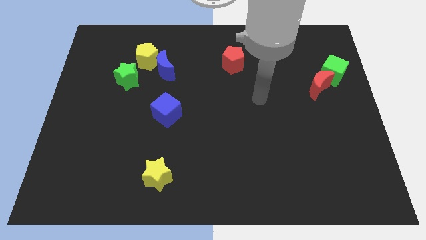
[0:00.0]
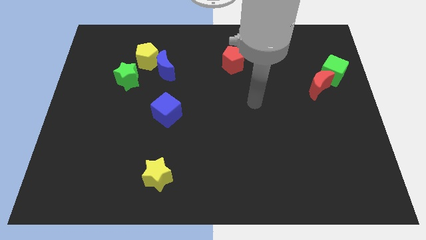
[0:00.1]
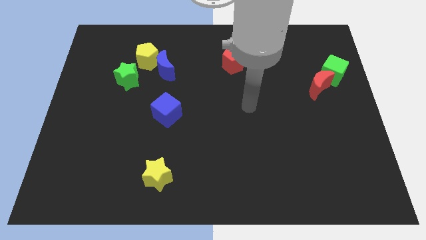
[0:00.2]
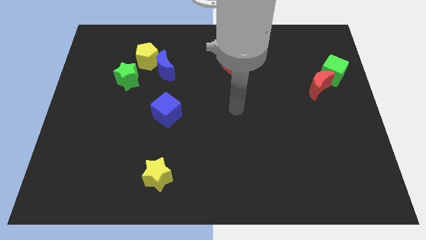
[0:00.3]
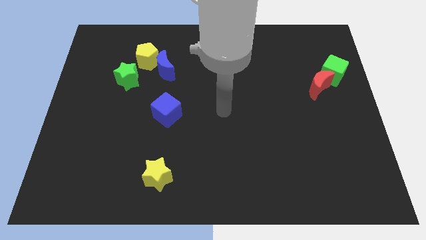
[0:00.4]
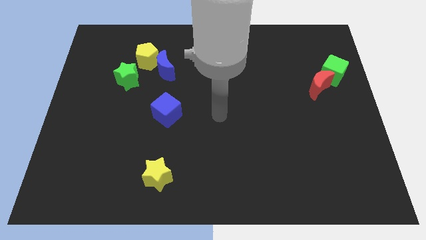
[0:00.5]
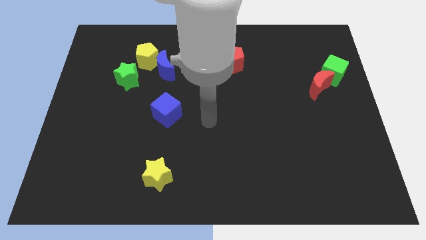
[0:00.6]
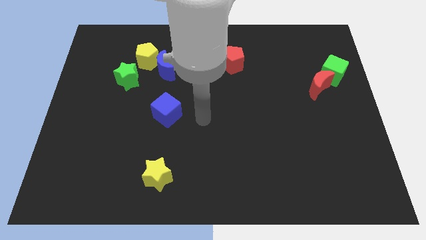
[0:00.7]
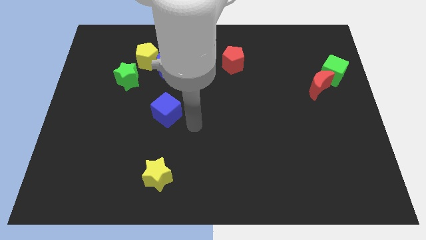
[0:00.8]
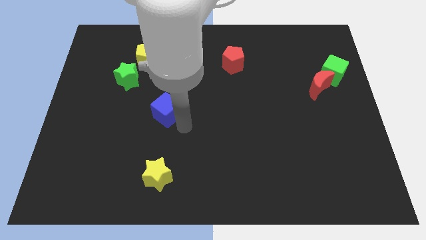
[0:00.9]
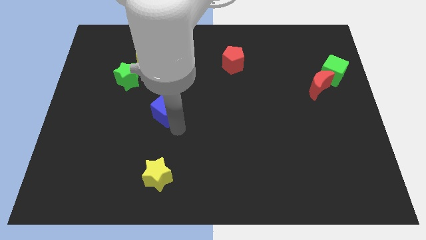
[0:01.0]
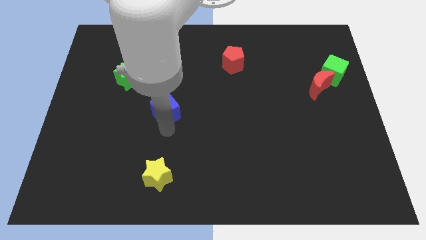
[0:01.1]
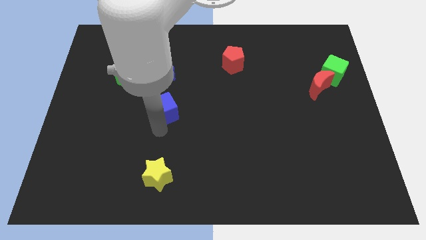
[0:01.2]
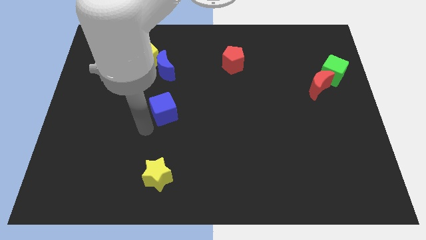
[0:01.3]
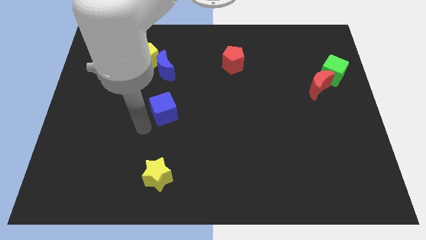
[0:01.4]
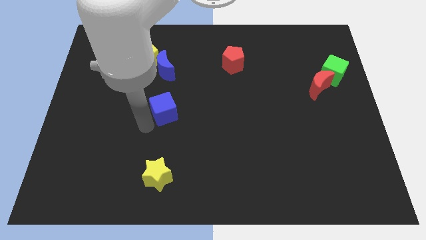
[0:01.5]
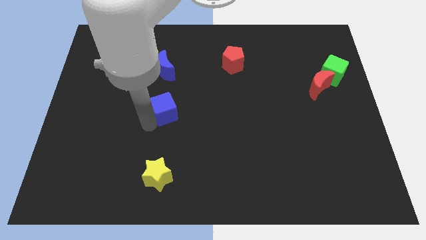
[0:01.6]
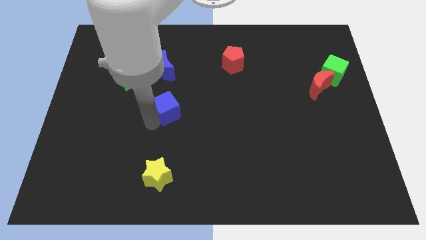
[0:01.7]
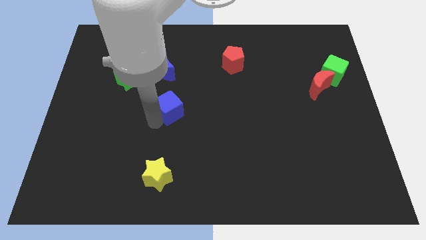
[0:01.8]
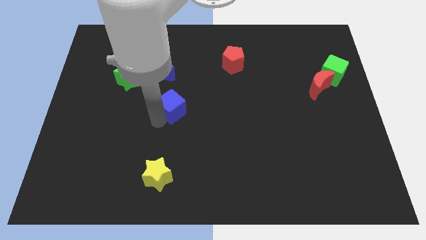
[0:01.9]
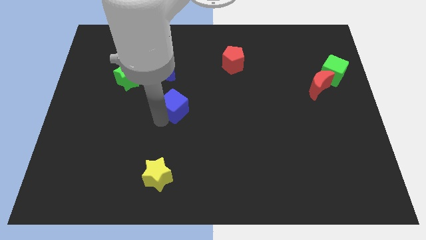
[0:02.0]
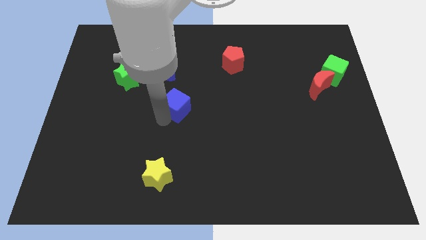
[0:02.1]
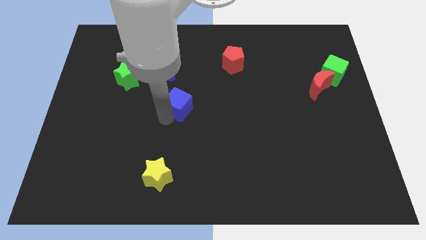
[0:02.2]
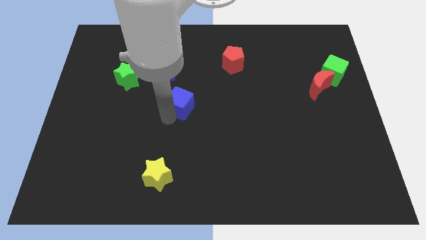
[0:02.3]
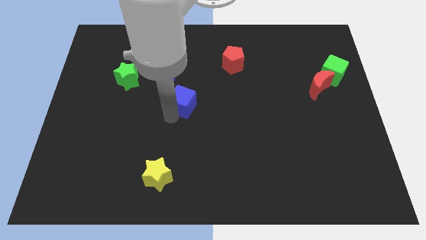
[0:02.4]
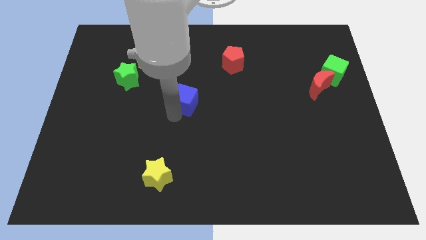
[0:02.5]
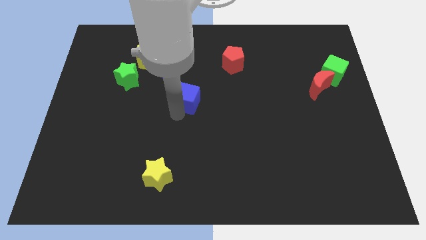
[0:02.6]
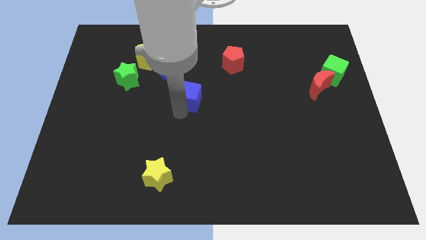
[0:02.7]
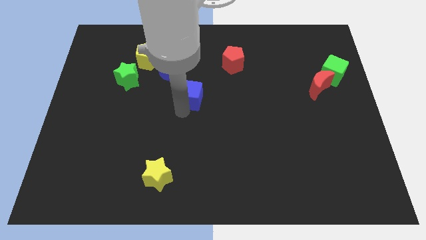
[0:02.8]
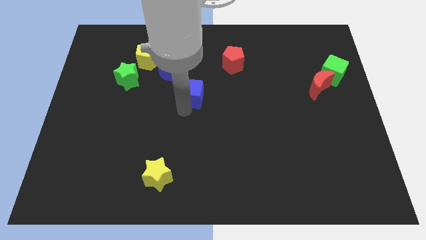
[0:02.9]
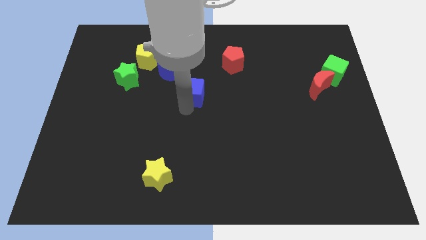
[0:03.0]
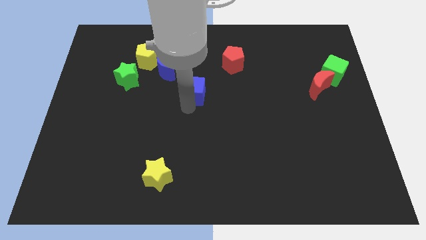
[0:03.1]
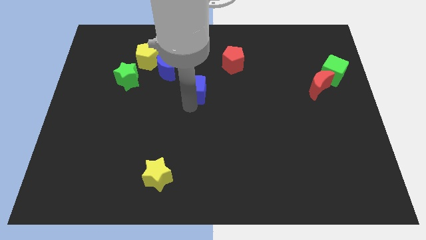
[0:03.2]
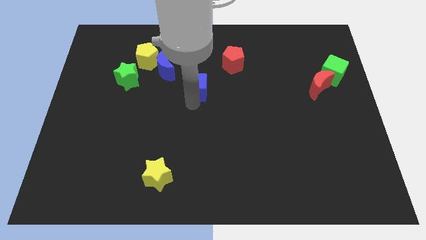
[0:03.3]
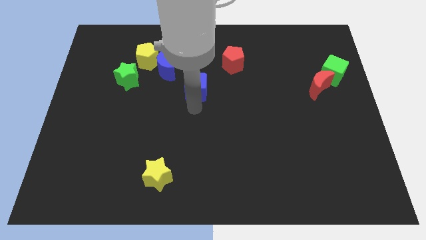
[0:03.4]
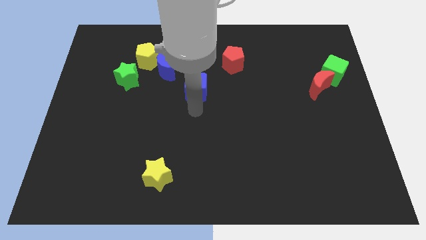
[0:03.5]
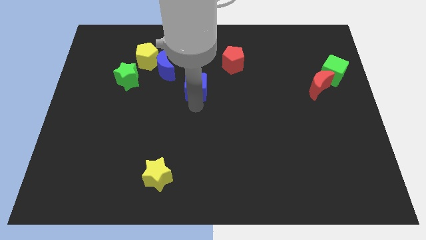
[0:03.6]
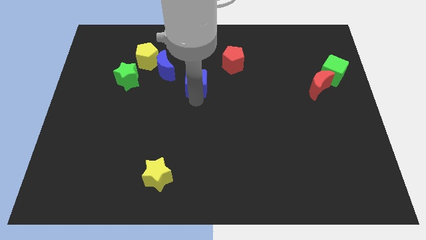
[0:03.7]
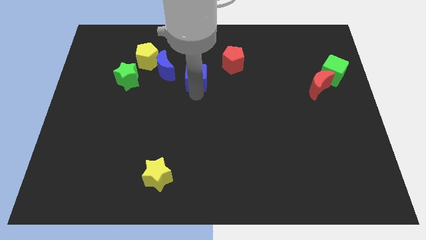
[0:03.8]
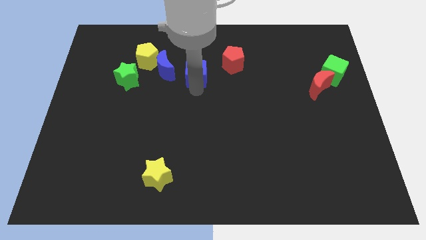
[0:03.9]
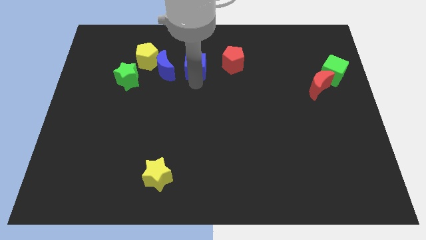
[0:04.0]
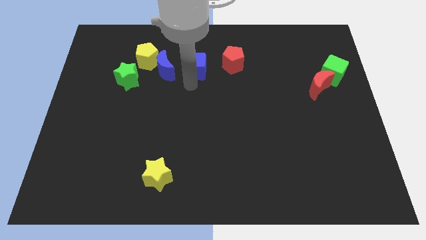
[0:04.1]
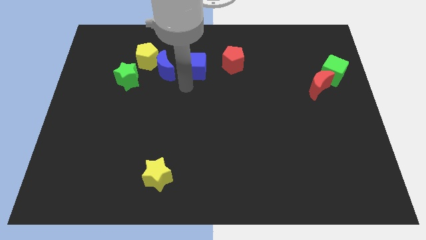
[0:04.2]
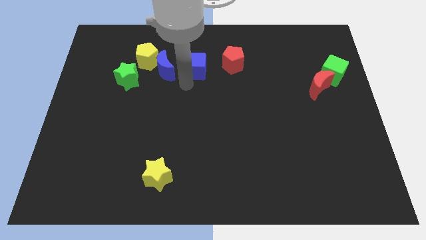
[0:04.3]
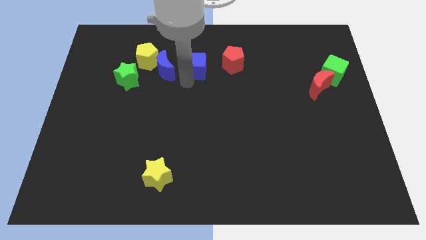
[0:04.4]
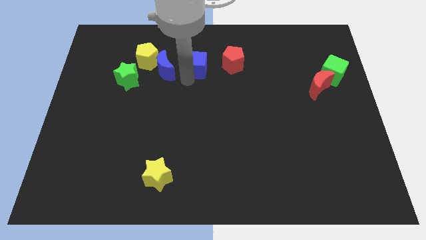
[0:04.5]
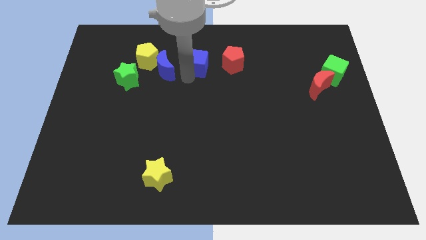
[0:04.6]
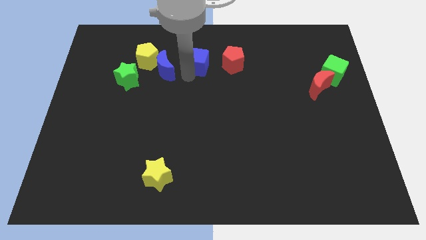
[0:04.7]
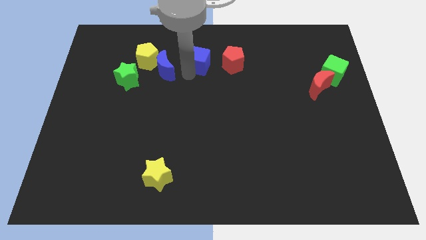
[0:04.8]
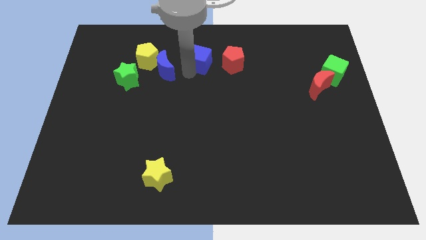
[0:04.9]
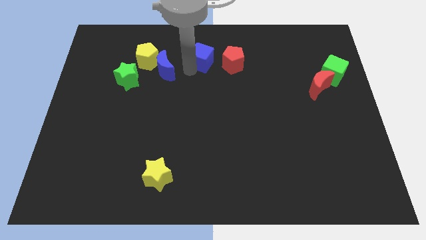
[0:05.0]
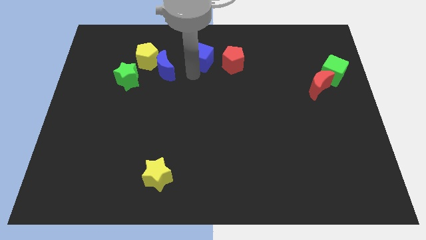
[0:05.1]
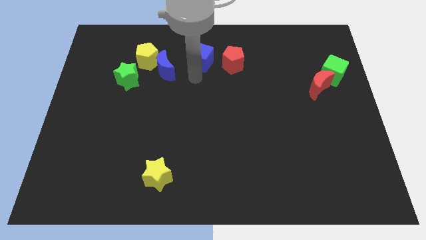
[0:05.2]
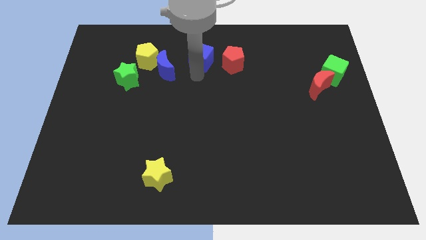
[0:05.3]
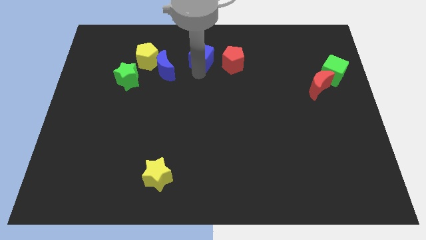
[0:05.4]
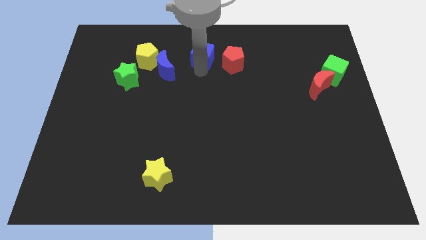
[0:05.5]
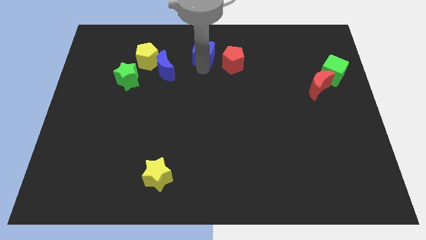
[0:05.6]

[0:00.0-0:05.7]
slide the blue cube to the towards your base

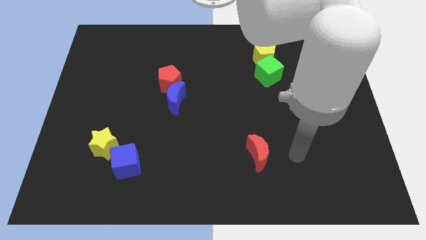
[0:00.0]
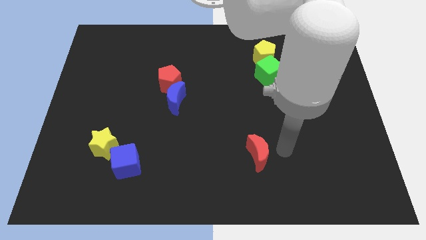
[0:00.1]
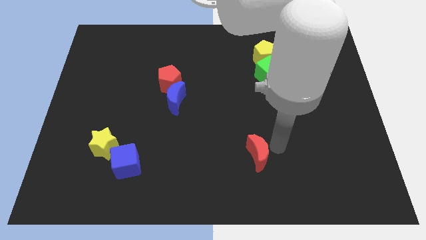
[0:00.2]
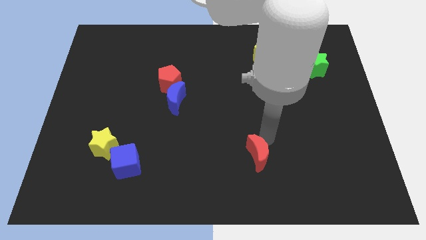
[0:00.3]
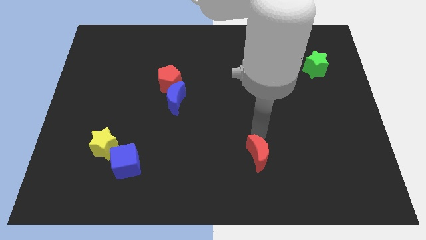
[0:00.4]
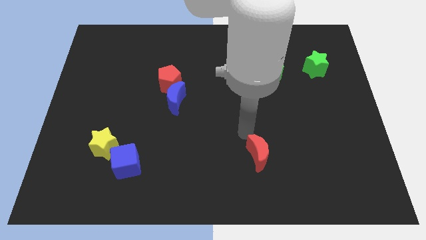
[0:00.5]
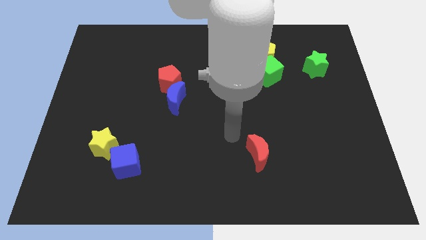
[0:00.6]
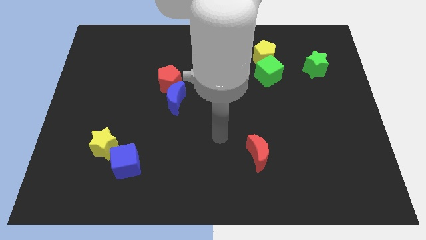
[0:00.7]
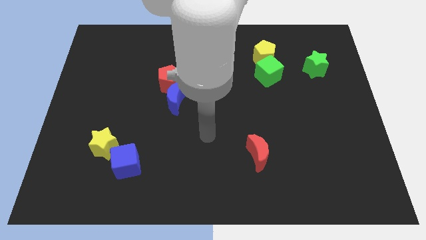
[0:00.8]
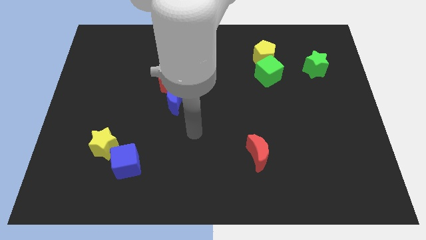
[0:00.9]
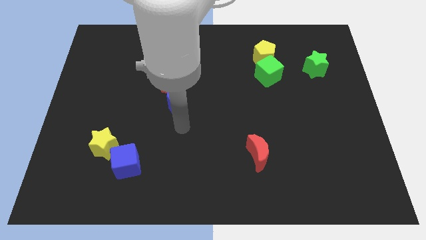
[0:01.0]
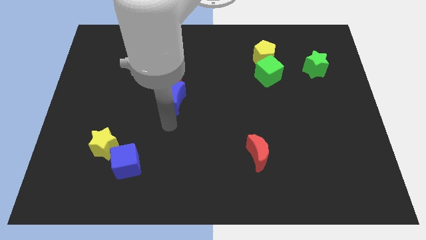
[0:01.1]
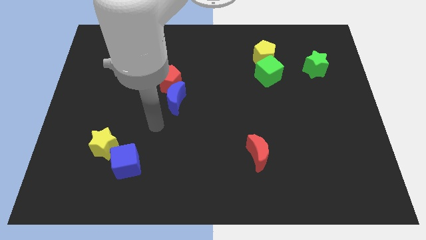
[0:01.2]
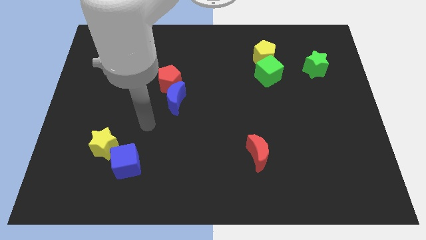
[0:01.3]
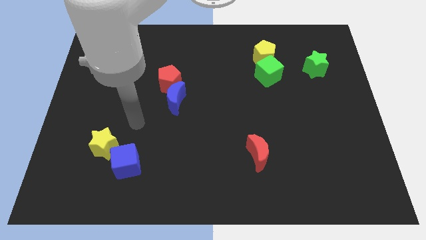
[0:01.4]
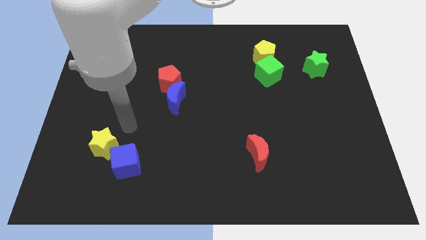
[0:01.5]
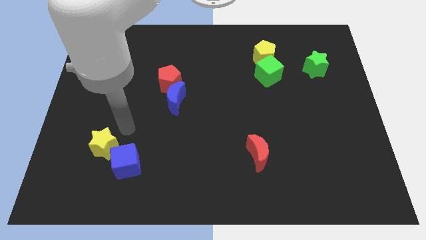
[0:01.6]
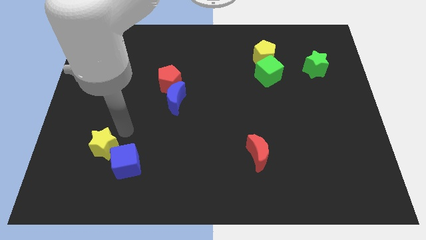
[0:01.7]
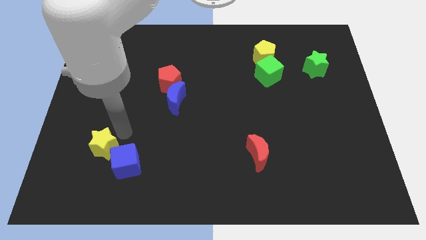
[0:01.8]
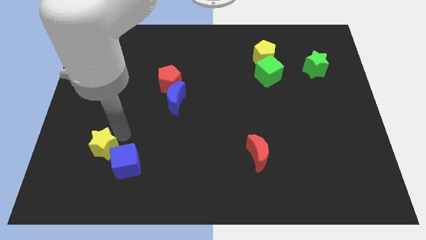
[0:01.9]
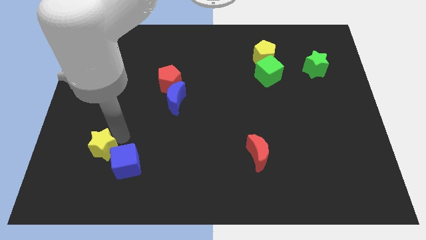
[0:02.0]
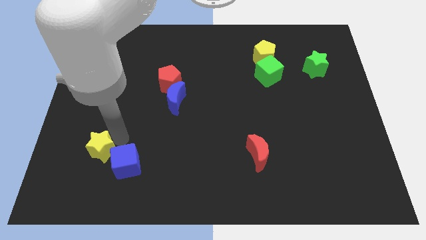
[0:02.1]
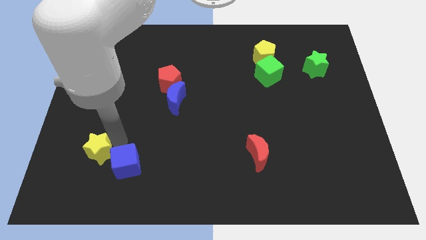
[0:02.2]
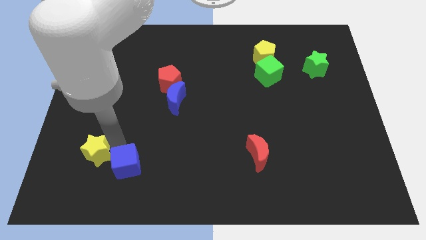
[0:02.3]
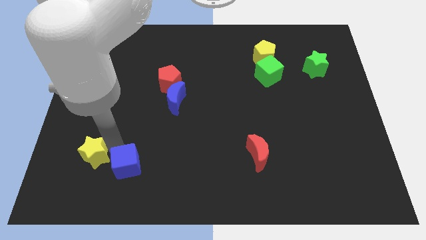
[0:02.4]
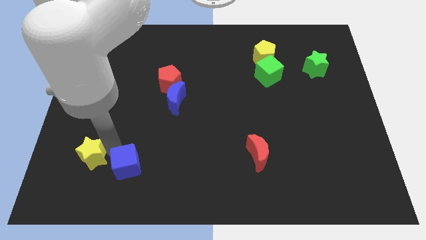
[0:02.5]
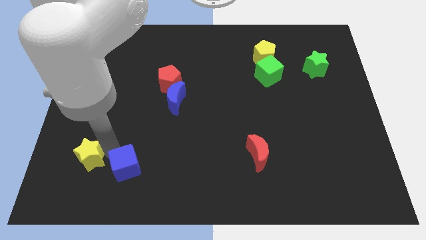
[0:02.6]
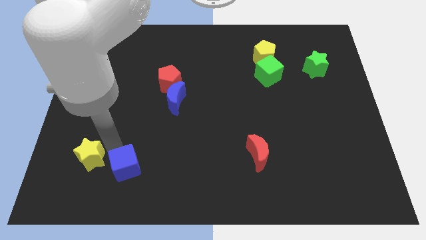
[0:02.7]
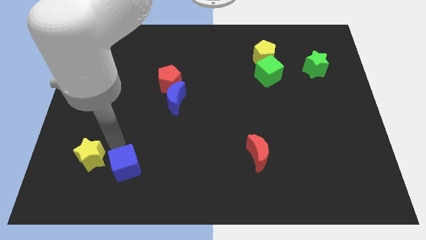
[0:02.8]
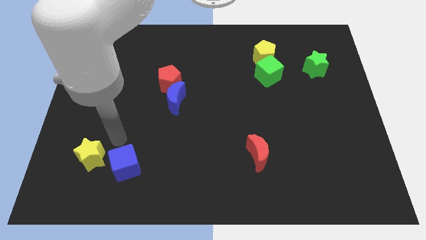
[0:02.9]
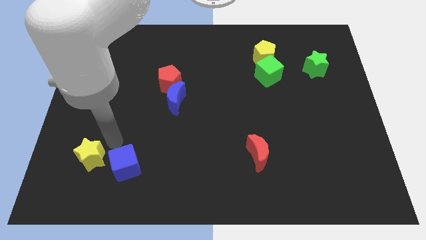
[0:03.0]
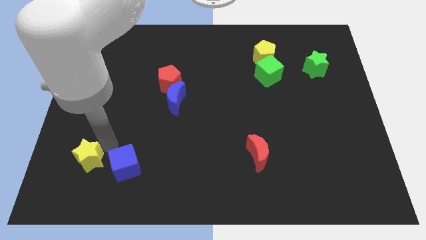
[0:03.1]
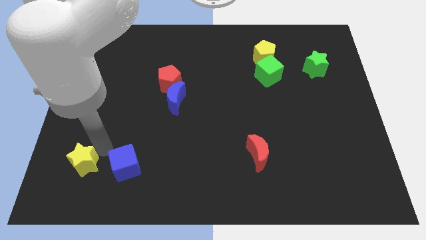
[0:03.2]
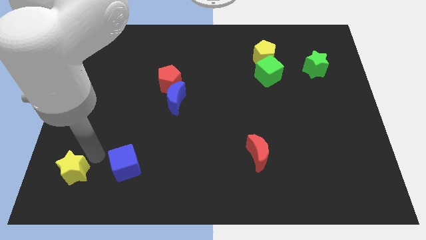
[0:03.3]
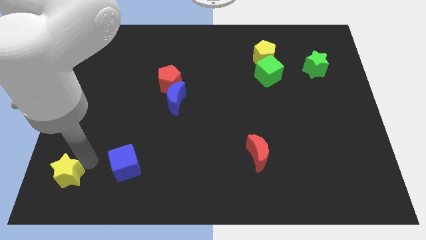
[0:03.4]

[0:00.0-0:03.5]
slide the yellow star to the bottom left corner
